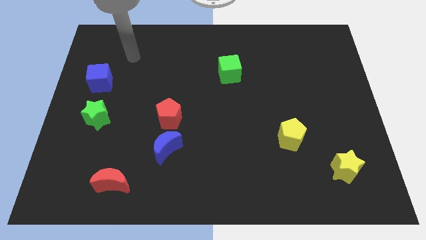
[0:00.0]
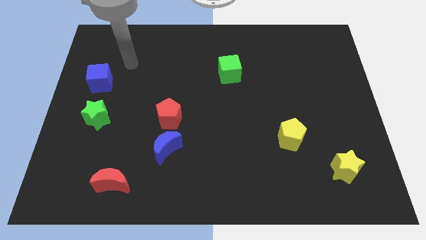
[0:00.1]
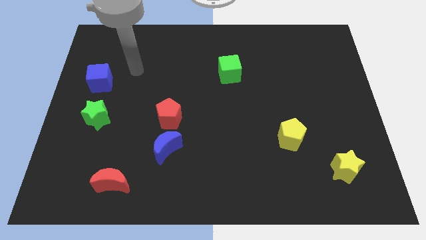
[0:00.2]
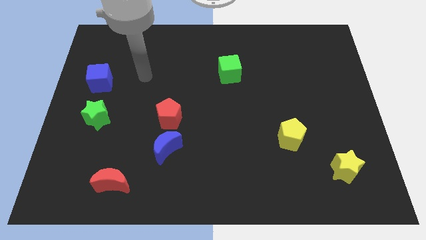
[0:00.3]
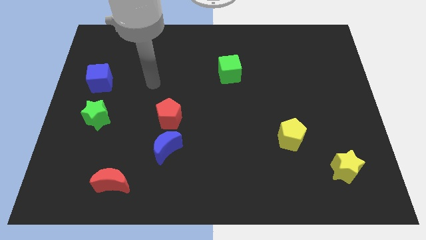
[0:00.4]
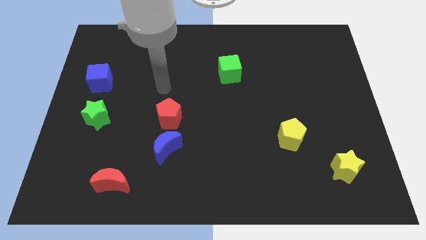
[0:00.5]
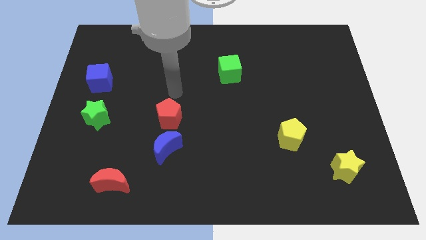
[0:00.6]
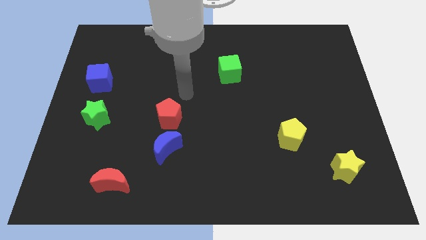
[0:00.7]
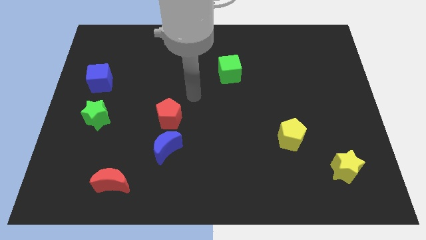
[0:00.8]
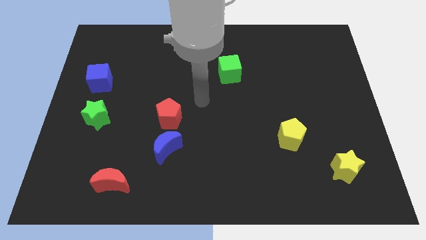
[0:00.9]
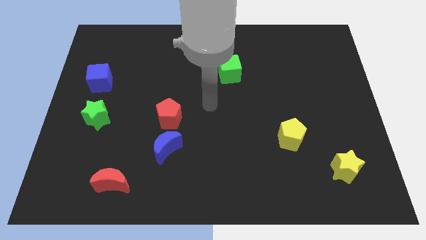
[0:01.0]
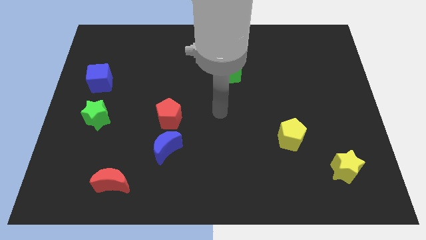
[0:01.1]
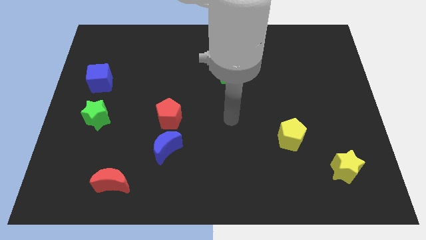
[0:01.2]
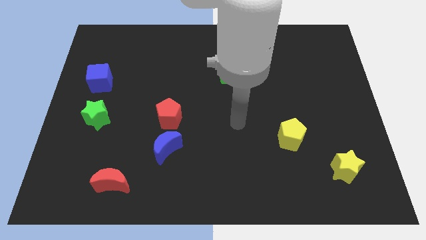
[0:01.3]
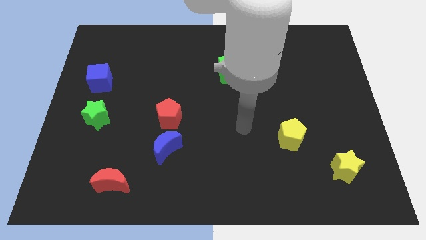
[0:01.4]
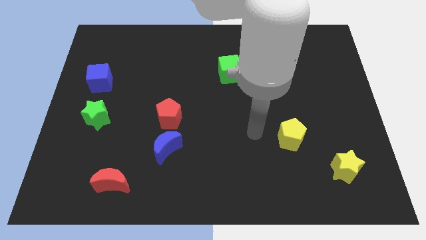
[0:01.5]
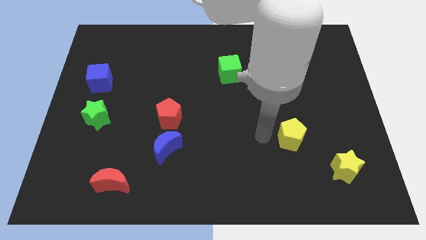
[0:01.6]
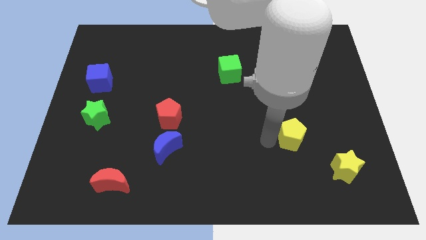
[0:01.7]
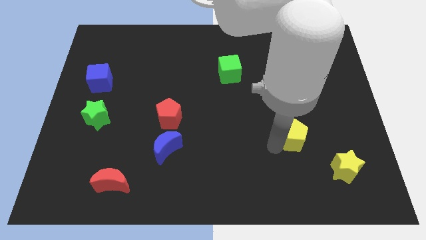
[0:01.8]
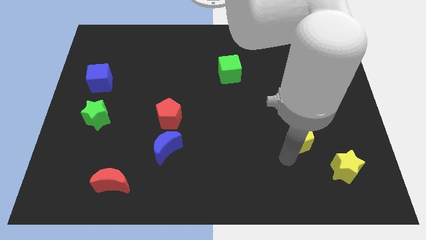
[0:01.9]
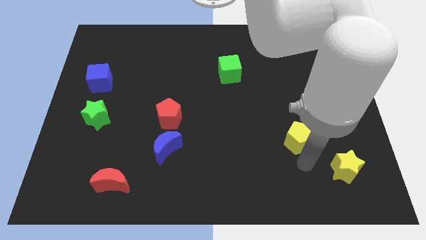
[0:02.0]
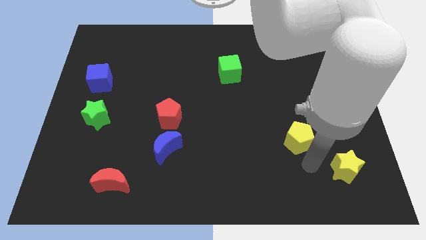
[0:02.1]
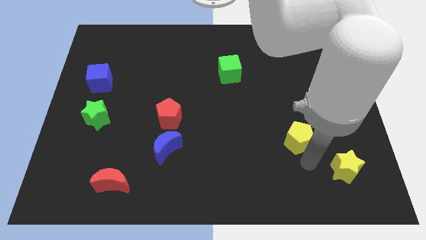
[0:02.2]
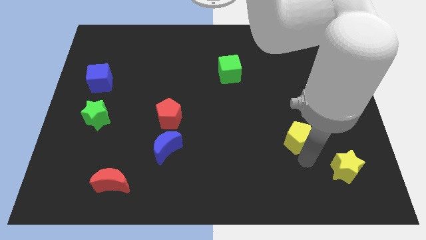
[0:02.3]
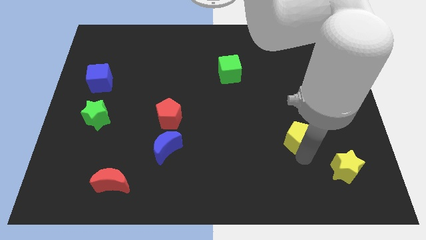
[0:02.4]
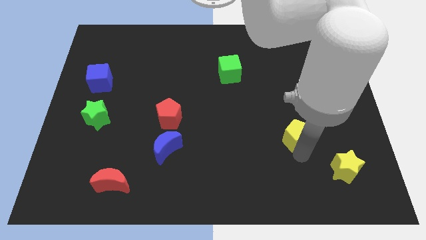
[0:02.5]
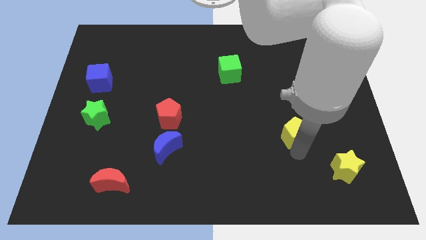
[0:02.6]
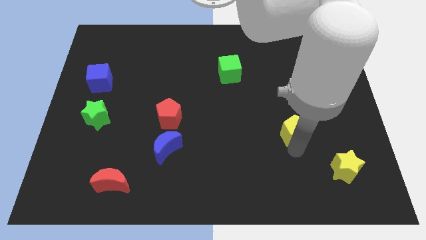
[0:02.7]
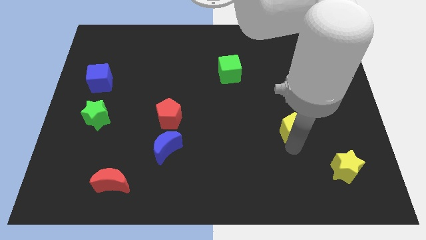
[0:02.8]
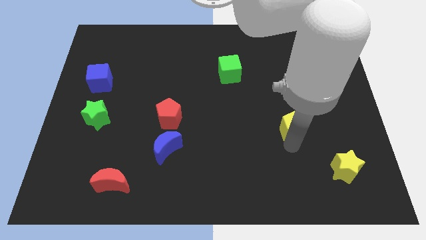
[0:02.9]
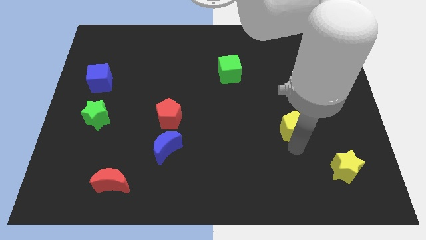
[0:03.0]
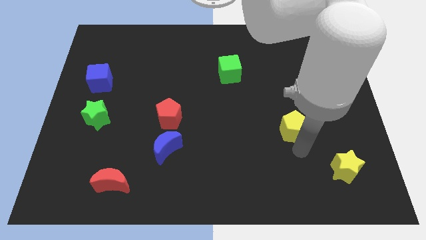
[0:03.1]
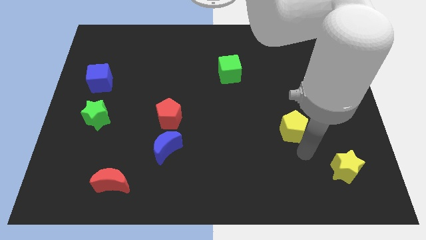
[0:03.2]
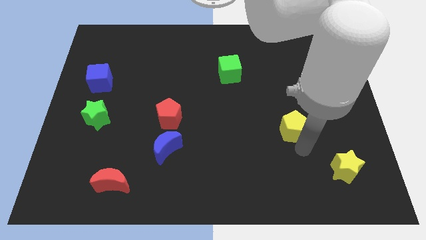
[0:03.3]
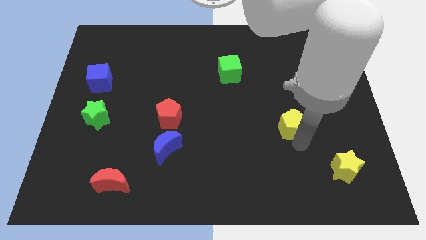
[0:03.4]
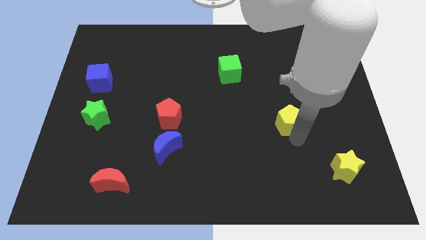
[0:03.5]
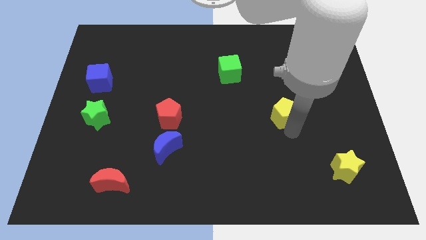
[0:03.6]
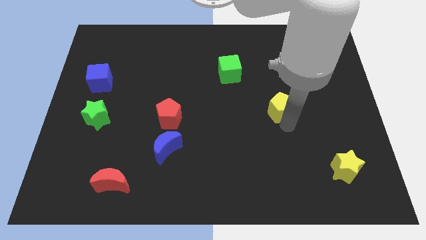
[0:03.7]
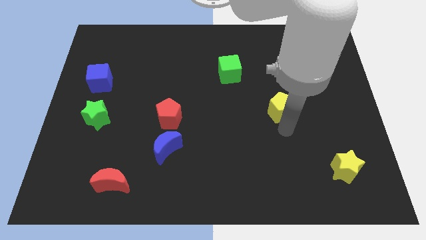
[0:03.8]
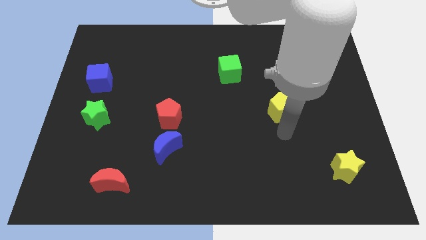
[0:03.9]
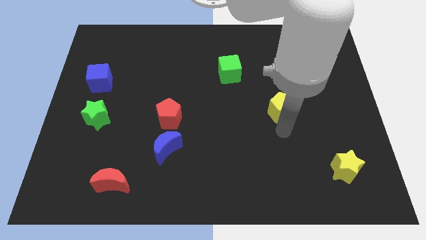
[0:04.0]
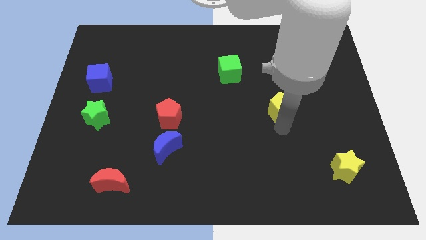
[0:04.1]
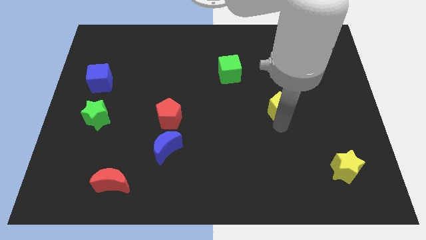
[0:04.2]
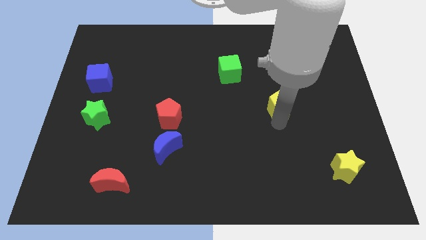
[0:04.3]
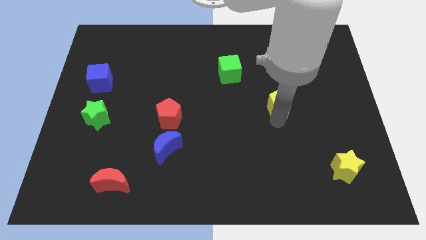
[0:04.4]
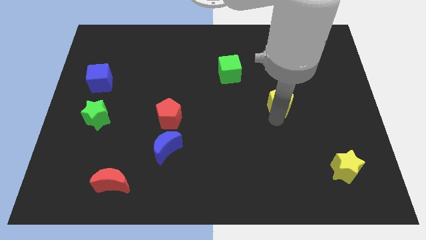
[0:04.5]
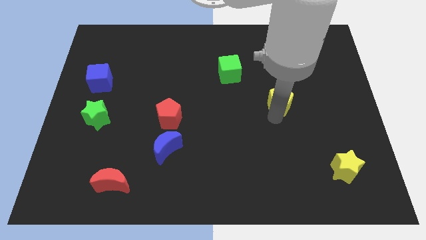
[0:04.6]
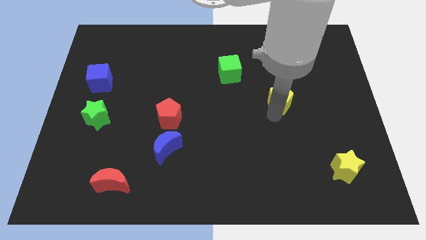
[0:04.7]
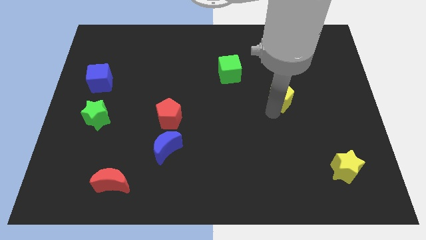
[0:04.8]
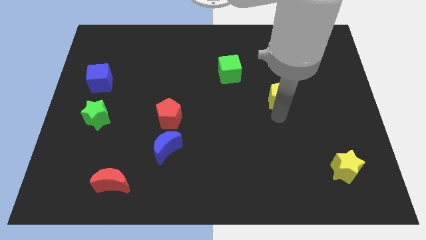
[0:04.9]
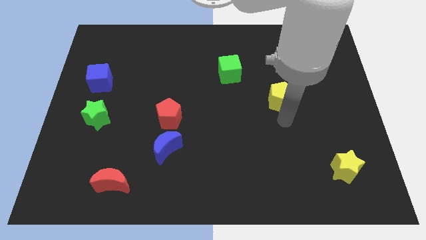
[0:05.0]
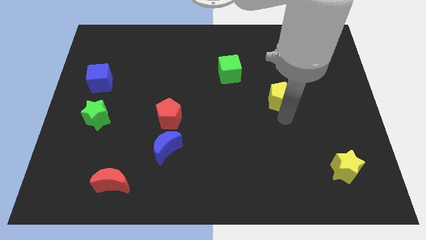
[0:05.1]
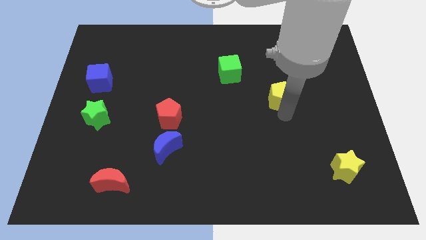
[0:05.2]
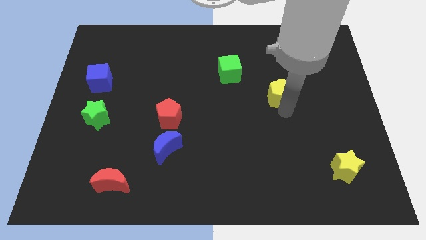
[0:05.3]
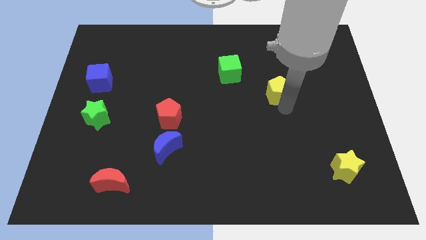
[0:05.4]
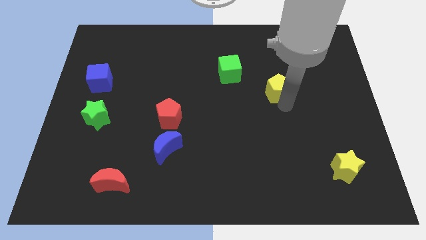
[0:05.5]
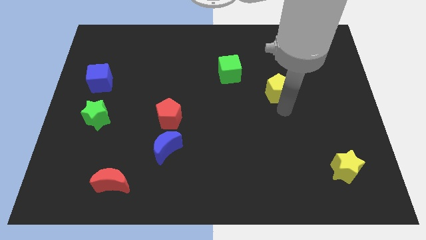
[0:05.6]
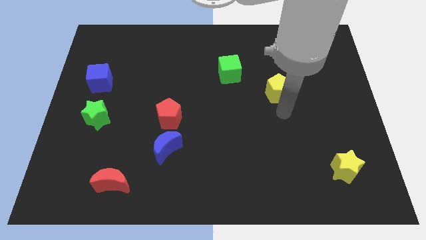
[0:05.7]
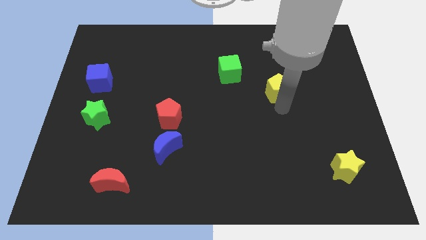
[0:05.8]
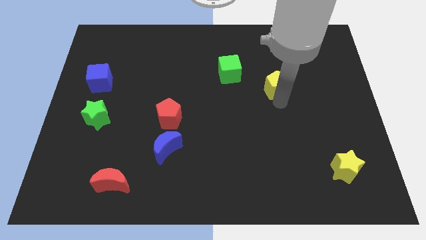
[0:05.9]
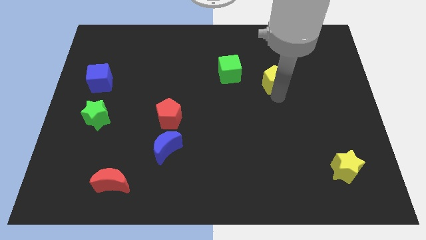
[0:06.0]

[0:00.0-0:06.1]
slide the yellow pentagon just right of the green cube

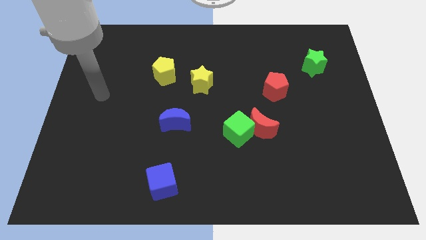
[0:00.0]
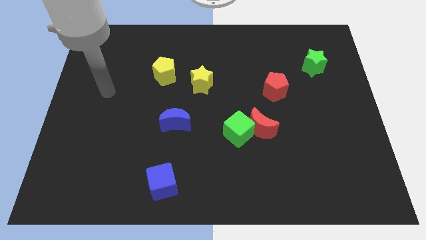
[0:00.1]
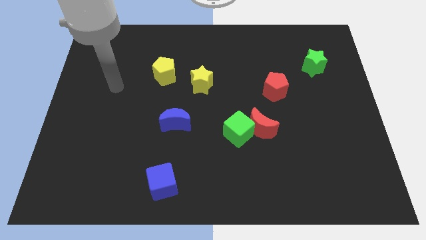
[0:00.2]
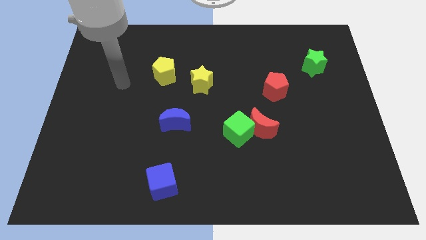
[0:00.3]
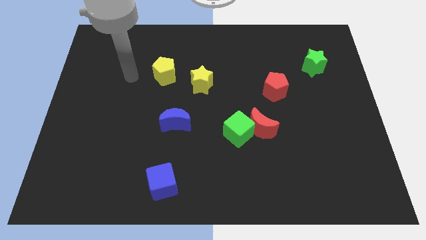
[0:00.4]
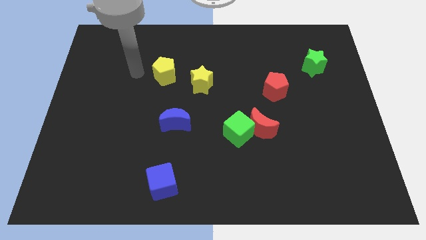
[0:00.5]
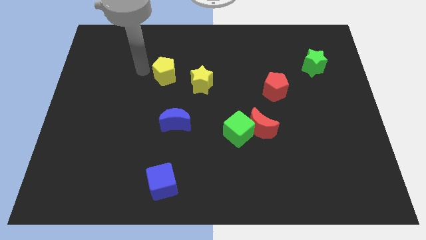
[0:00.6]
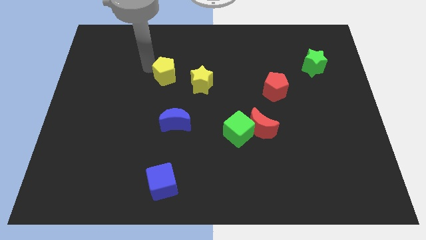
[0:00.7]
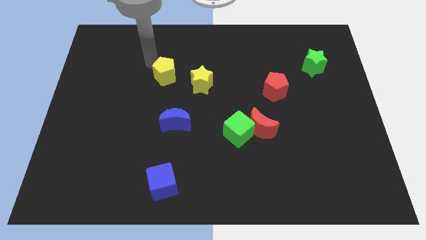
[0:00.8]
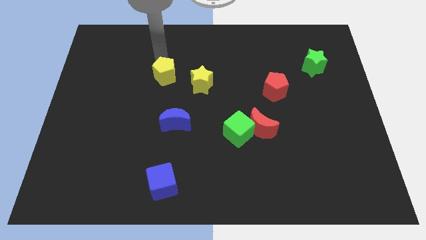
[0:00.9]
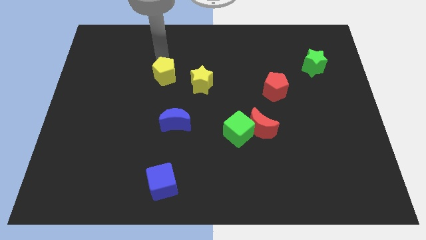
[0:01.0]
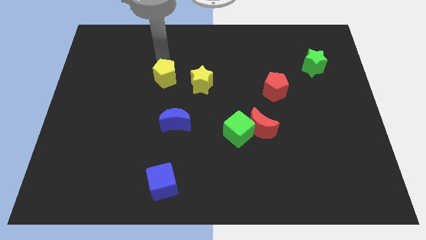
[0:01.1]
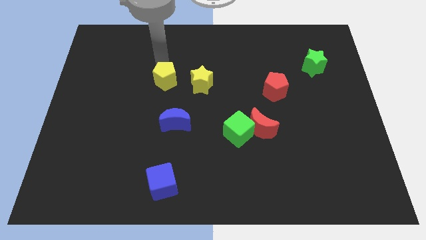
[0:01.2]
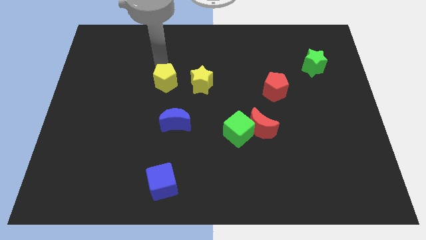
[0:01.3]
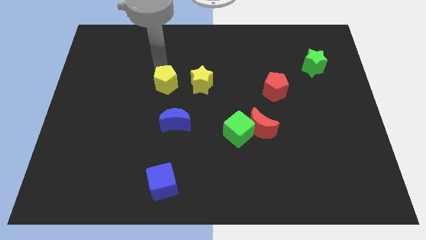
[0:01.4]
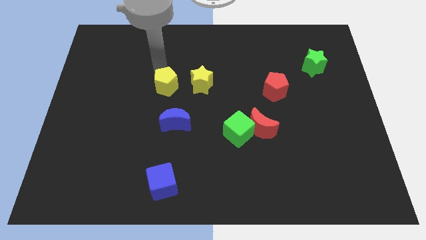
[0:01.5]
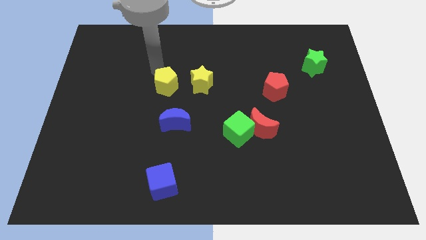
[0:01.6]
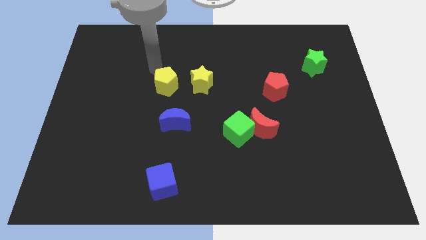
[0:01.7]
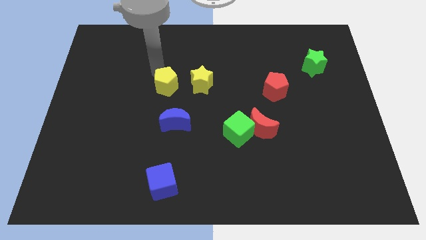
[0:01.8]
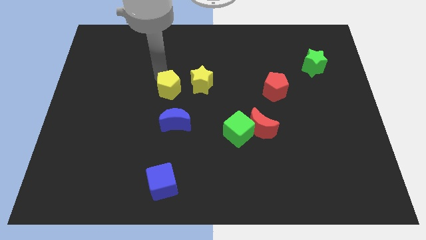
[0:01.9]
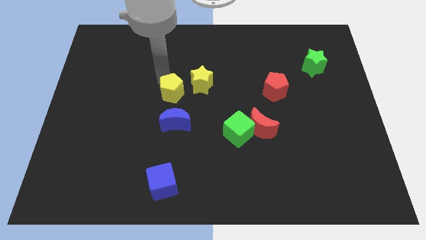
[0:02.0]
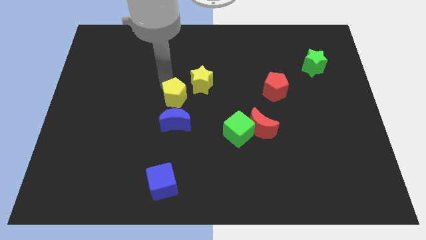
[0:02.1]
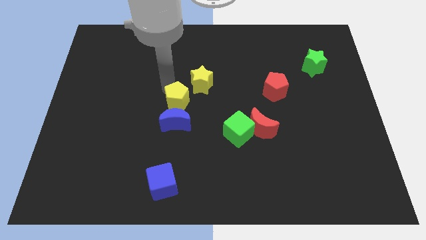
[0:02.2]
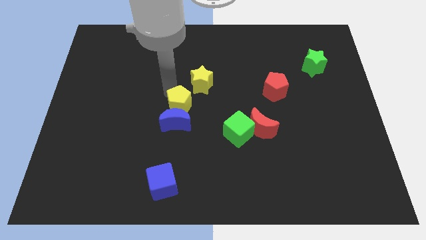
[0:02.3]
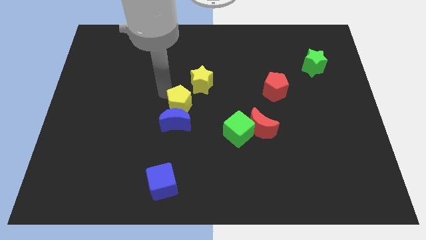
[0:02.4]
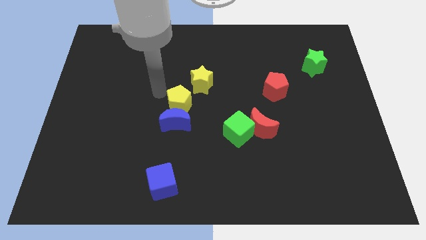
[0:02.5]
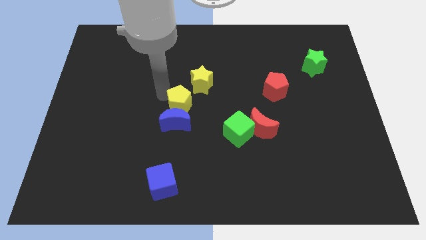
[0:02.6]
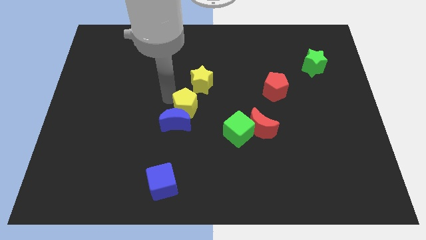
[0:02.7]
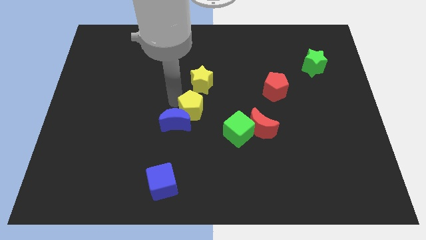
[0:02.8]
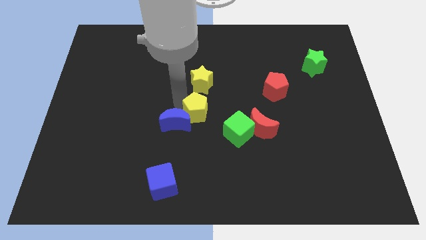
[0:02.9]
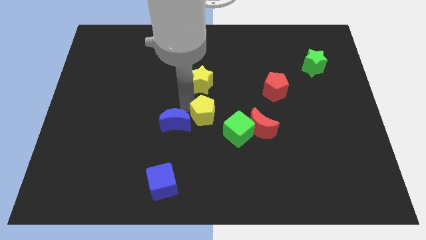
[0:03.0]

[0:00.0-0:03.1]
slide the yellow pentagon just left of the red moon
